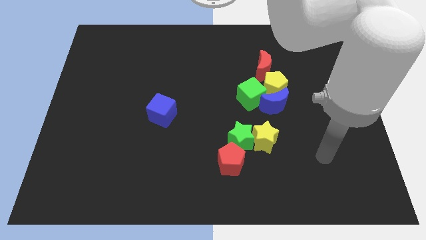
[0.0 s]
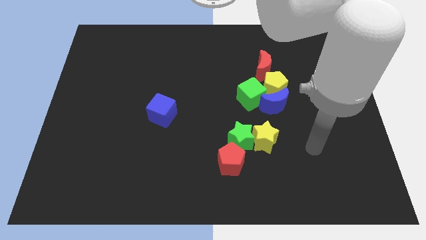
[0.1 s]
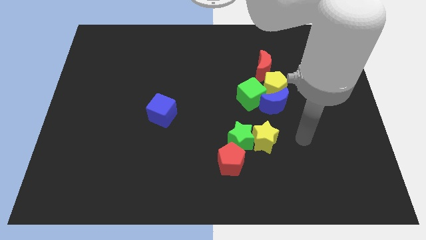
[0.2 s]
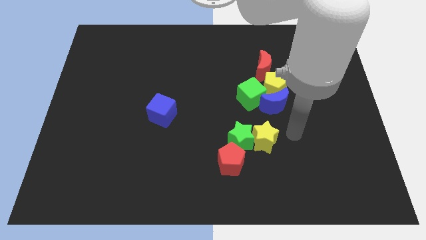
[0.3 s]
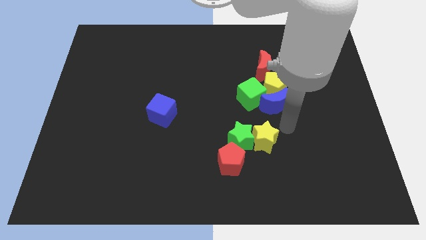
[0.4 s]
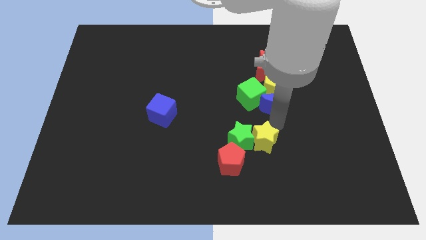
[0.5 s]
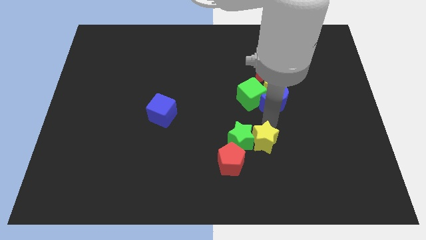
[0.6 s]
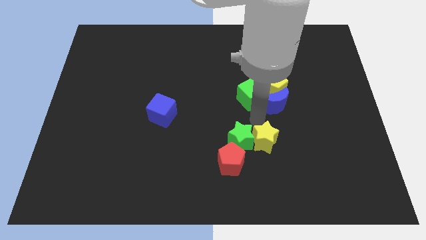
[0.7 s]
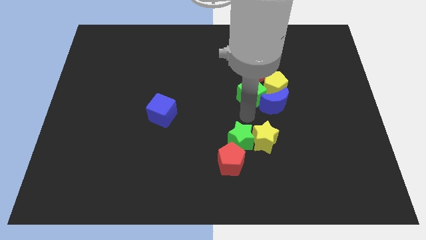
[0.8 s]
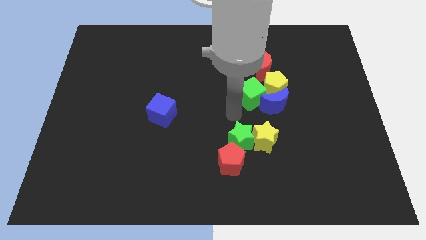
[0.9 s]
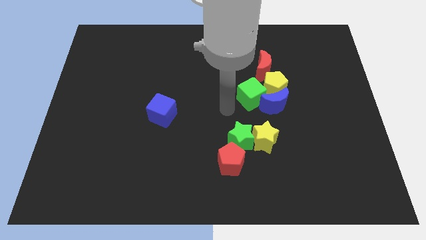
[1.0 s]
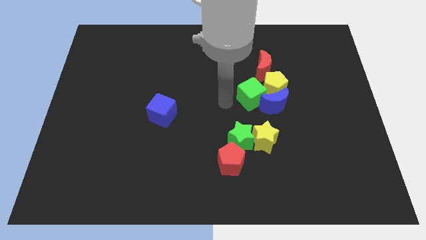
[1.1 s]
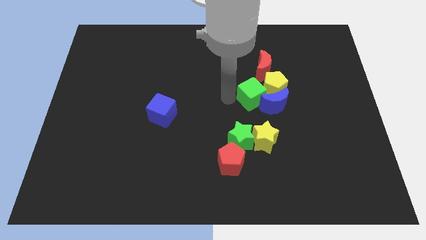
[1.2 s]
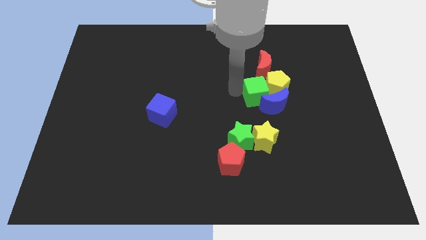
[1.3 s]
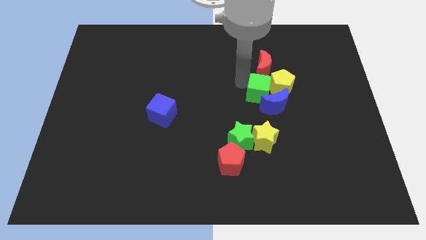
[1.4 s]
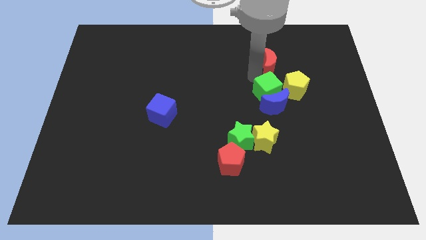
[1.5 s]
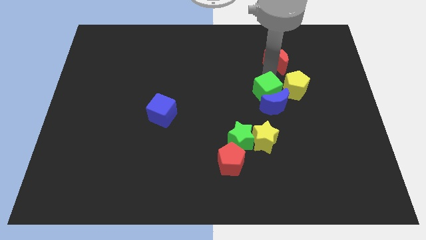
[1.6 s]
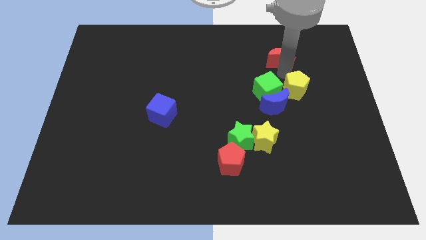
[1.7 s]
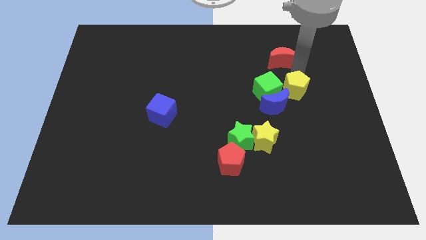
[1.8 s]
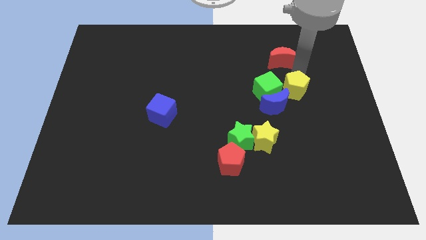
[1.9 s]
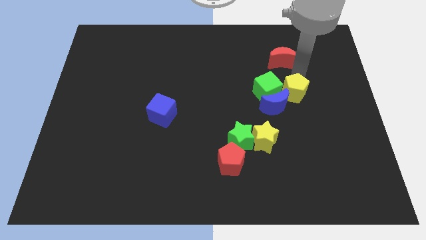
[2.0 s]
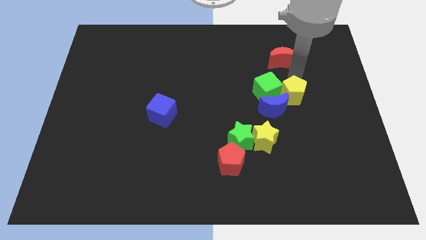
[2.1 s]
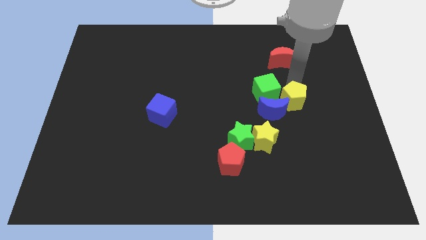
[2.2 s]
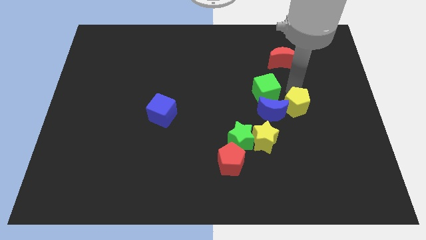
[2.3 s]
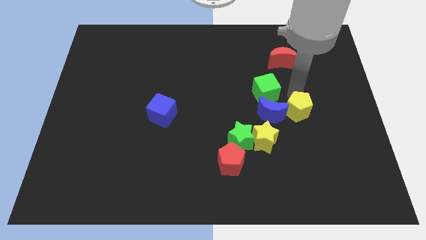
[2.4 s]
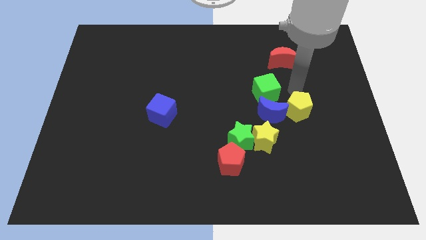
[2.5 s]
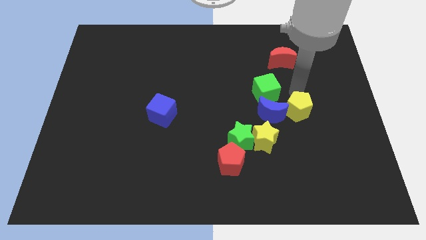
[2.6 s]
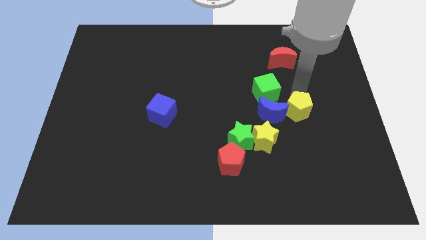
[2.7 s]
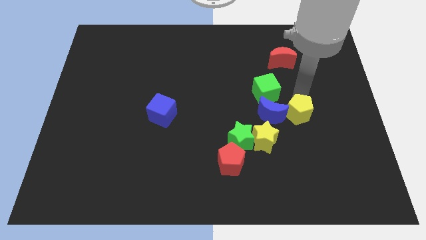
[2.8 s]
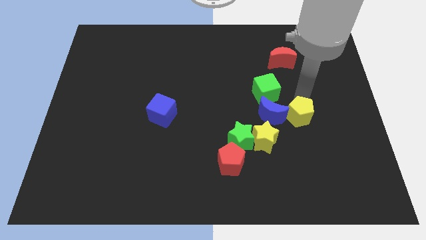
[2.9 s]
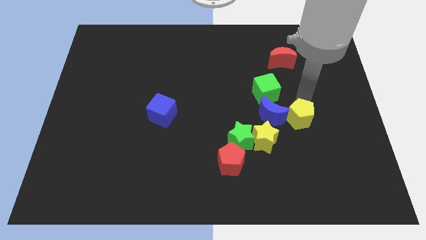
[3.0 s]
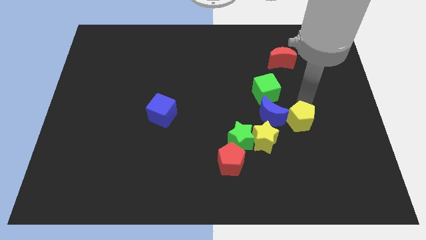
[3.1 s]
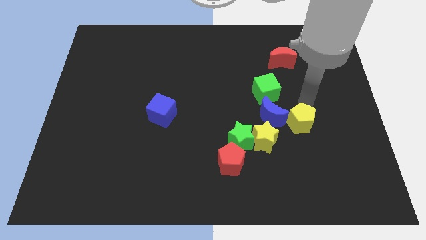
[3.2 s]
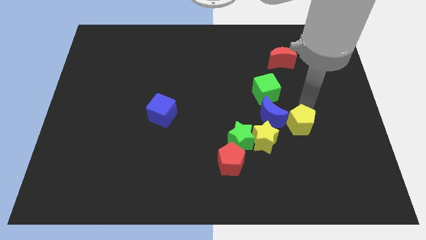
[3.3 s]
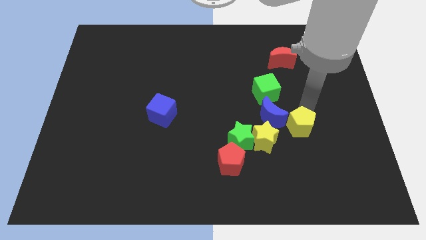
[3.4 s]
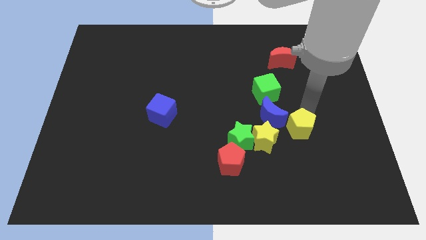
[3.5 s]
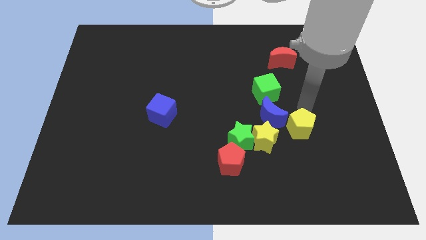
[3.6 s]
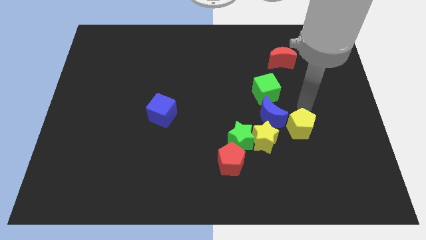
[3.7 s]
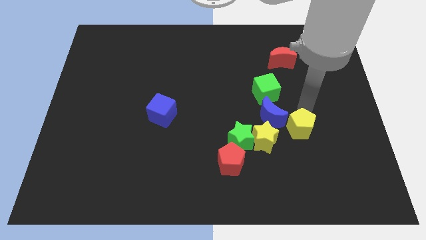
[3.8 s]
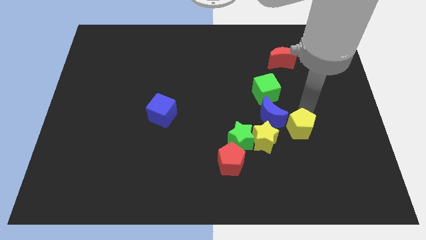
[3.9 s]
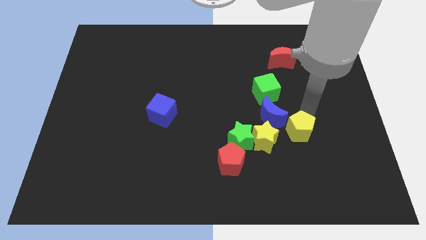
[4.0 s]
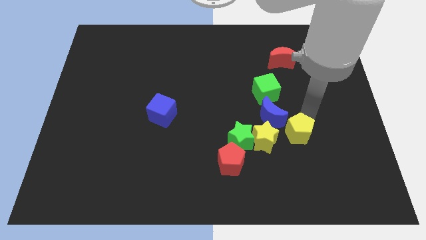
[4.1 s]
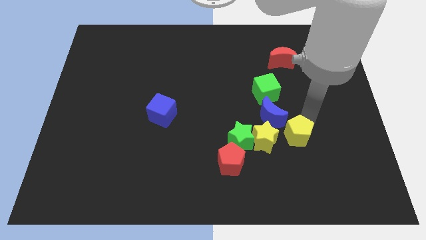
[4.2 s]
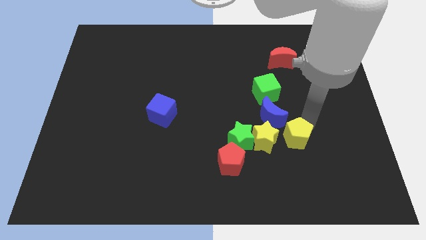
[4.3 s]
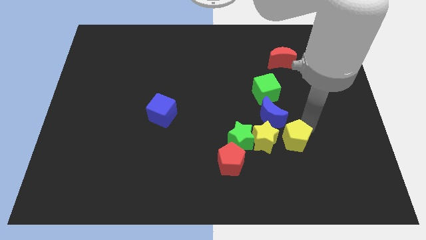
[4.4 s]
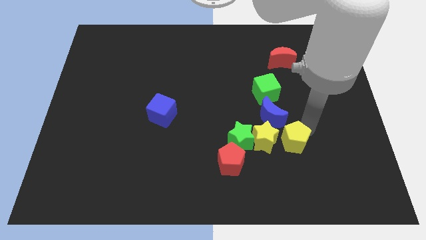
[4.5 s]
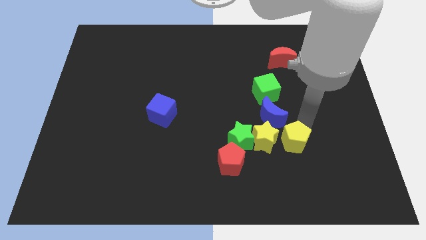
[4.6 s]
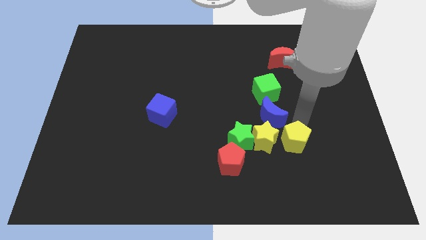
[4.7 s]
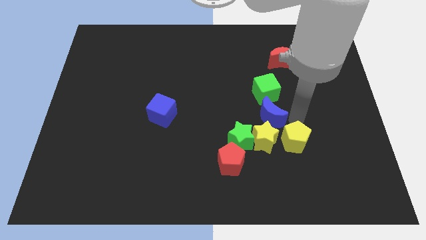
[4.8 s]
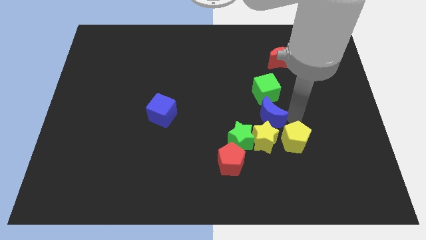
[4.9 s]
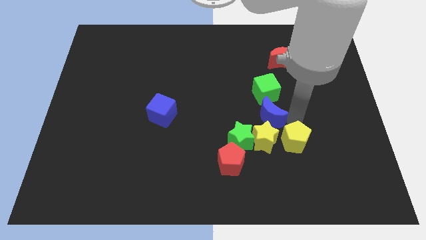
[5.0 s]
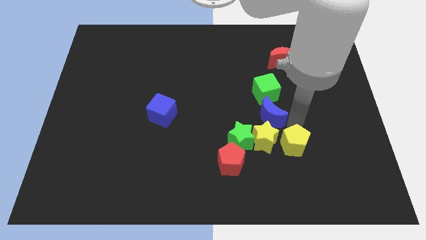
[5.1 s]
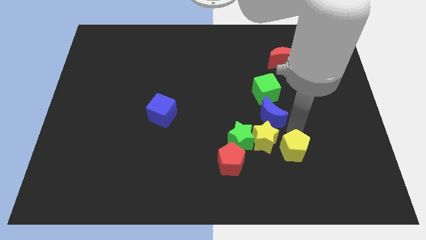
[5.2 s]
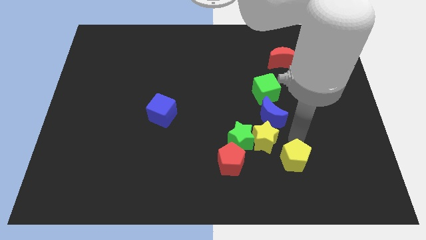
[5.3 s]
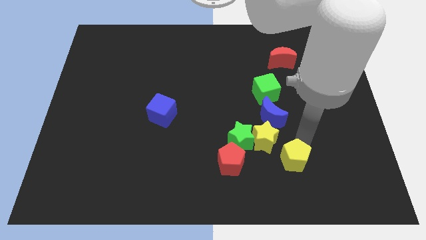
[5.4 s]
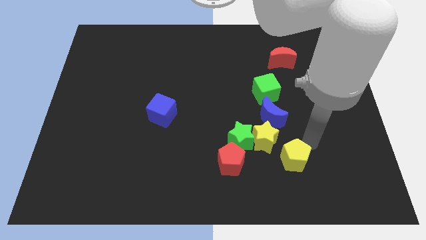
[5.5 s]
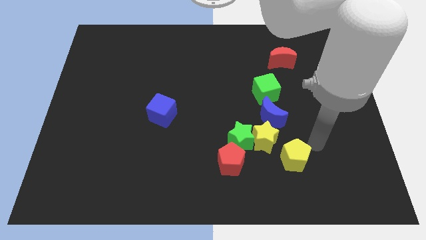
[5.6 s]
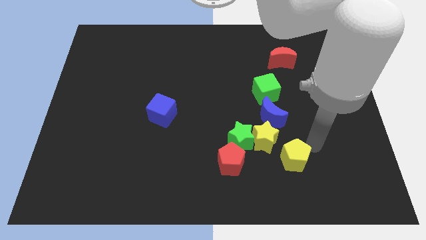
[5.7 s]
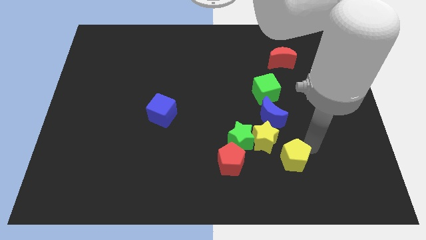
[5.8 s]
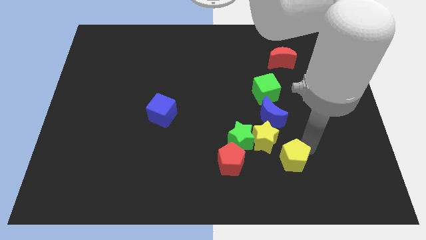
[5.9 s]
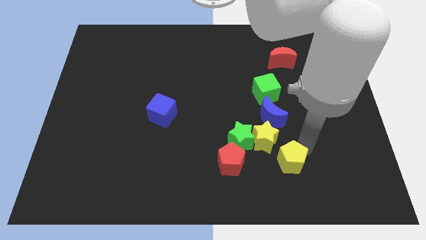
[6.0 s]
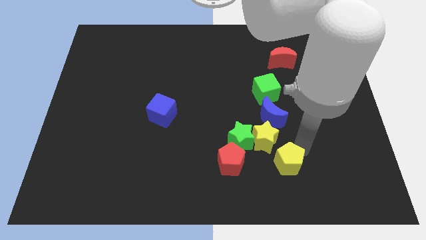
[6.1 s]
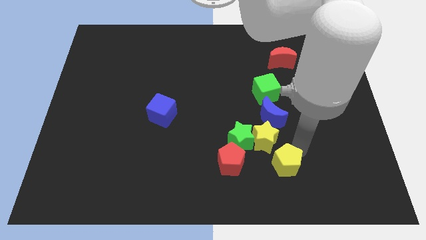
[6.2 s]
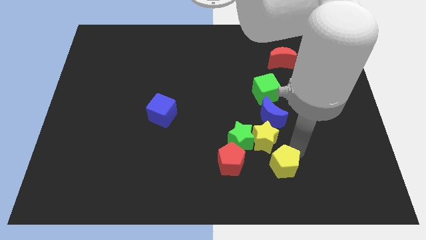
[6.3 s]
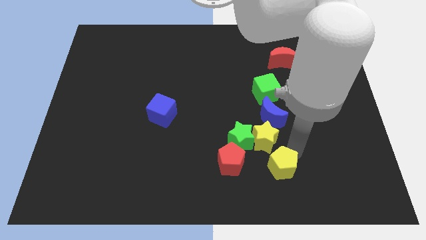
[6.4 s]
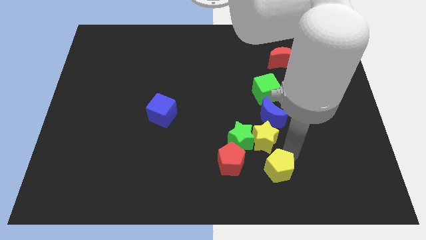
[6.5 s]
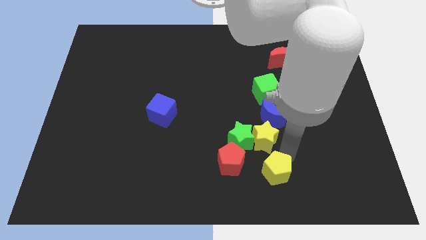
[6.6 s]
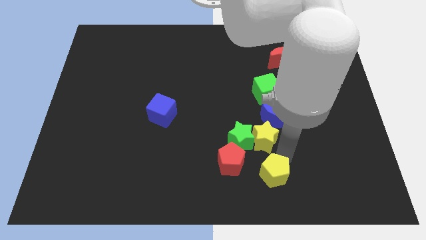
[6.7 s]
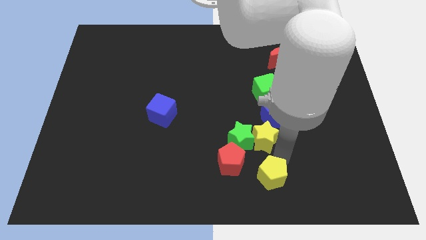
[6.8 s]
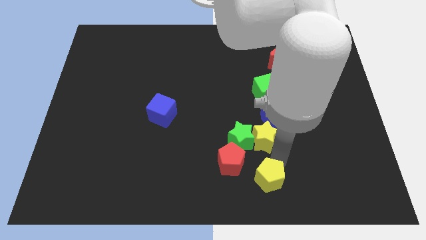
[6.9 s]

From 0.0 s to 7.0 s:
slide the yellow pentagon to the bottom side
